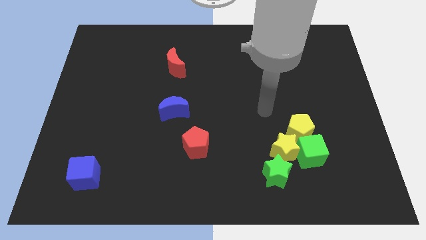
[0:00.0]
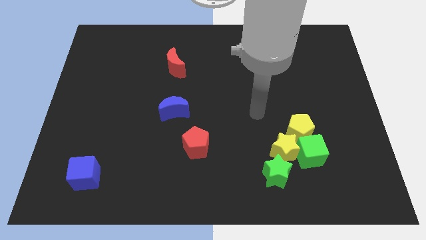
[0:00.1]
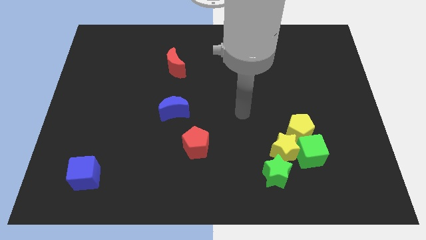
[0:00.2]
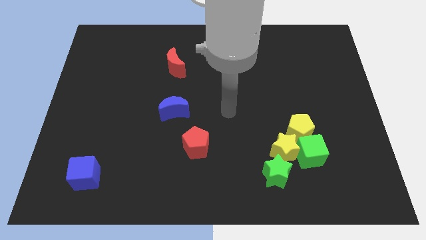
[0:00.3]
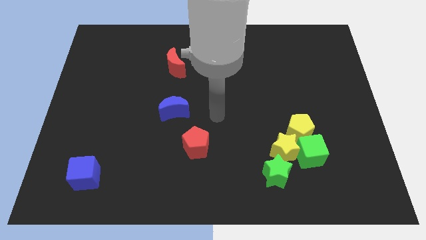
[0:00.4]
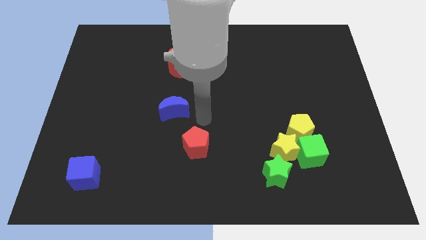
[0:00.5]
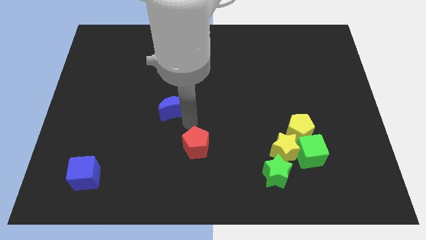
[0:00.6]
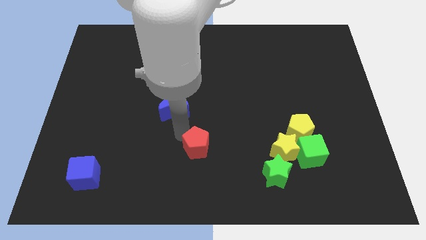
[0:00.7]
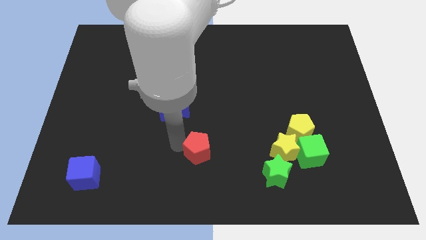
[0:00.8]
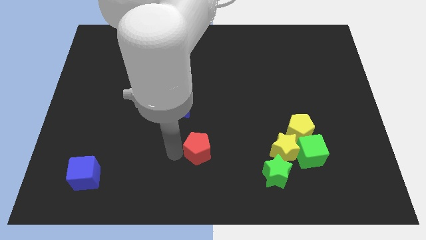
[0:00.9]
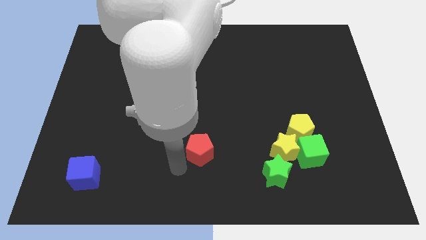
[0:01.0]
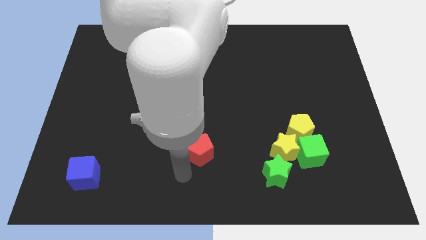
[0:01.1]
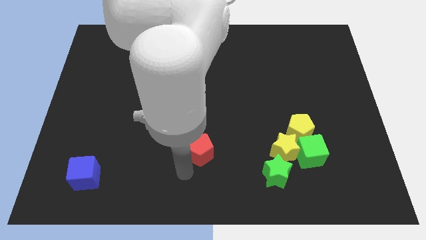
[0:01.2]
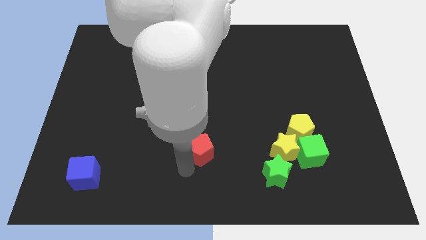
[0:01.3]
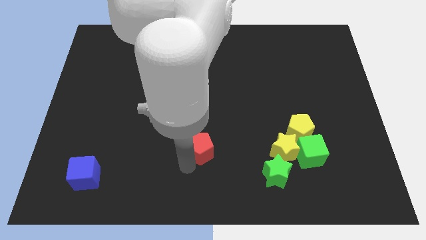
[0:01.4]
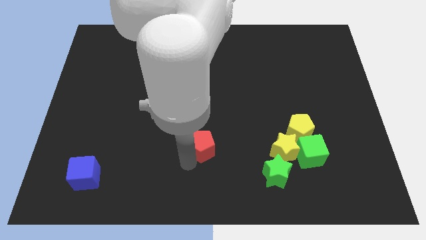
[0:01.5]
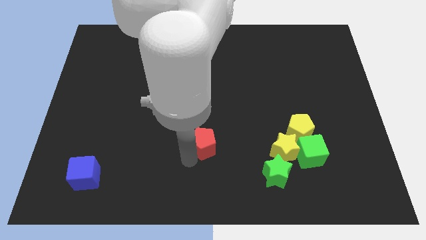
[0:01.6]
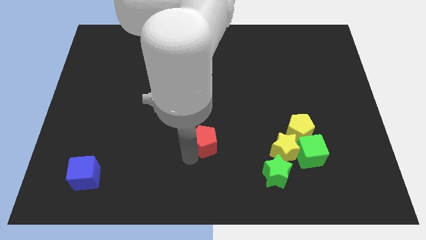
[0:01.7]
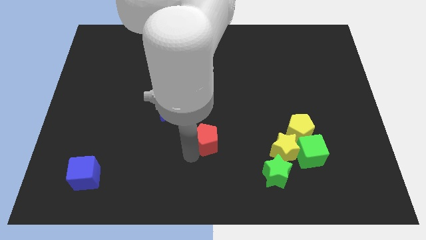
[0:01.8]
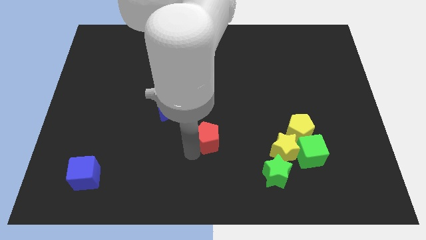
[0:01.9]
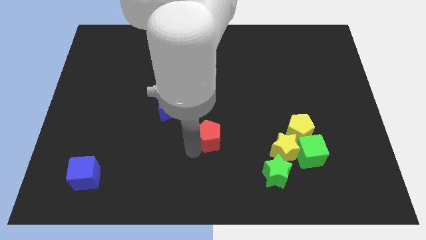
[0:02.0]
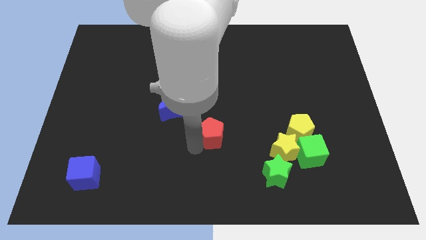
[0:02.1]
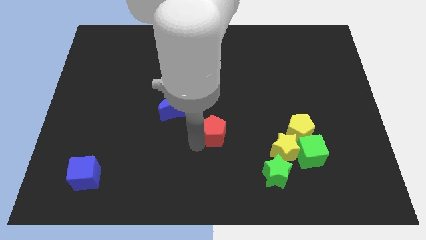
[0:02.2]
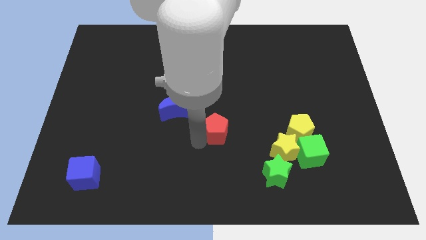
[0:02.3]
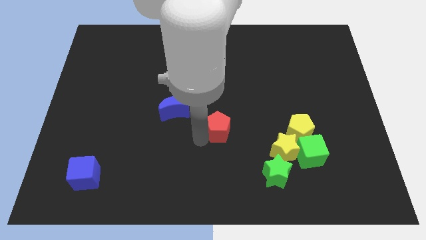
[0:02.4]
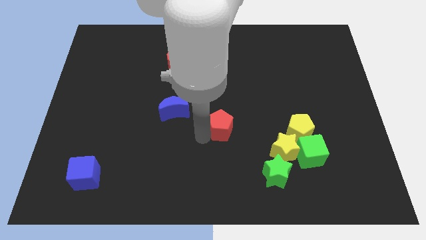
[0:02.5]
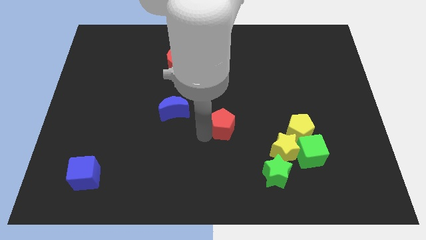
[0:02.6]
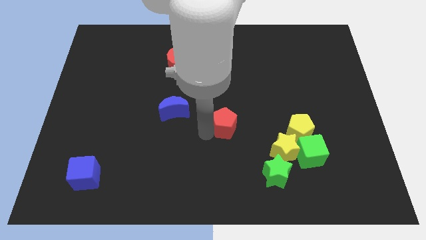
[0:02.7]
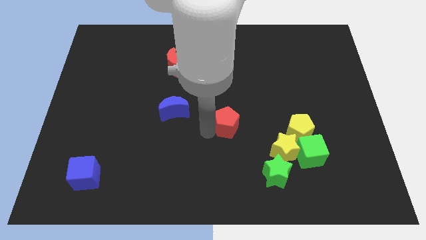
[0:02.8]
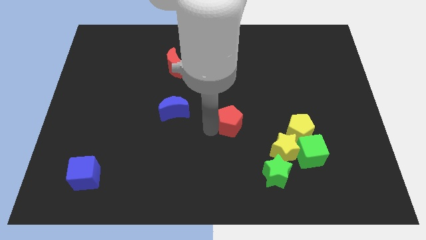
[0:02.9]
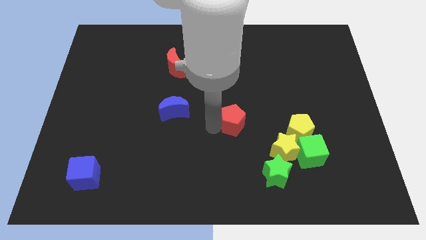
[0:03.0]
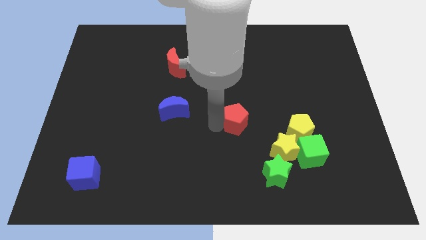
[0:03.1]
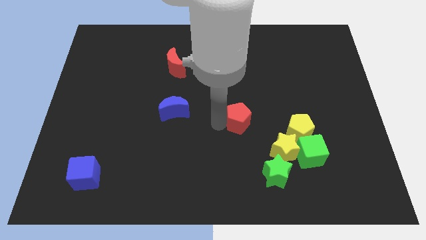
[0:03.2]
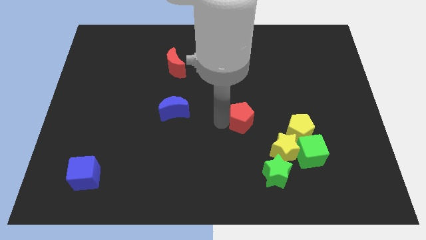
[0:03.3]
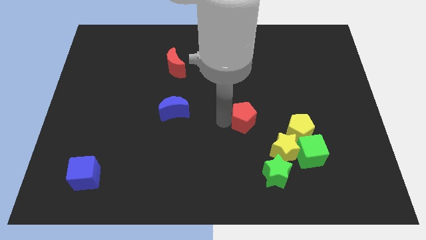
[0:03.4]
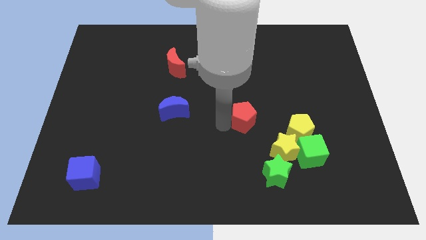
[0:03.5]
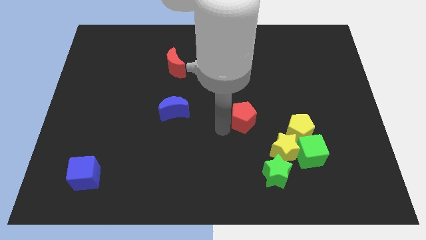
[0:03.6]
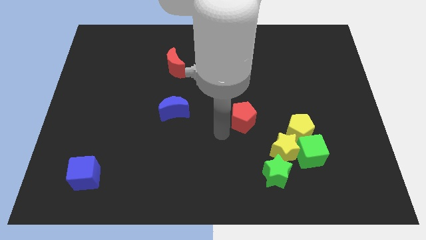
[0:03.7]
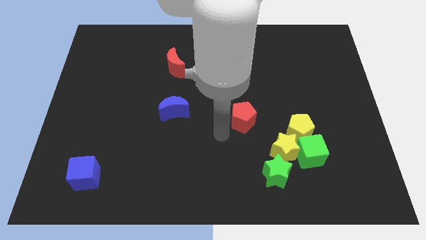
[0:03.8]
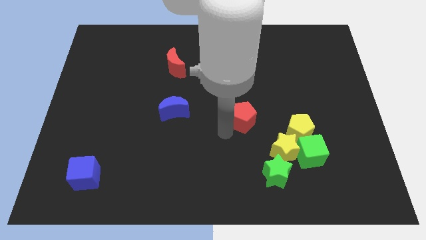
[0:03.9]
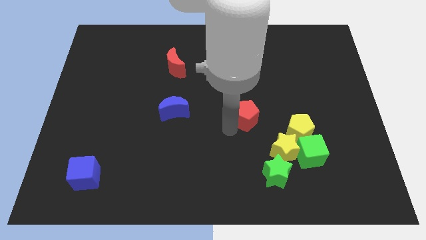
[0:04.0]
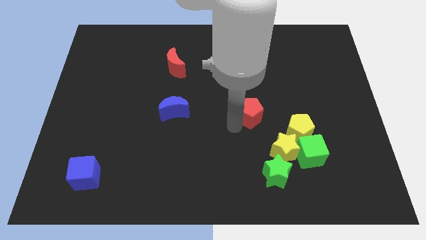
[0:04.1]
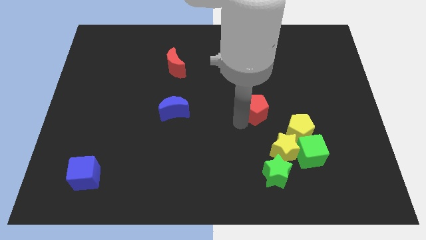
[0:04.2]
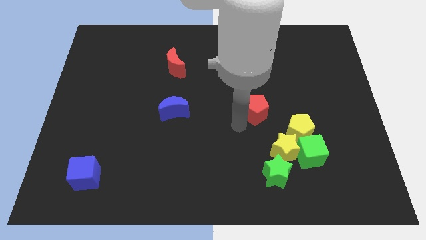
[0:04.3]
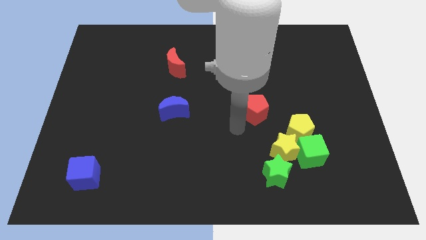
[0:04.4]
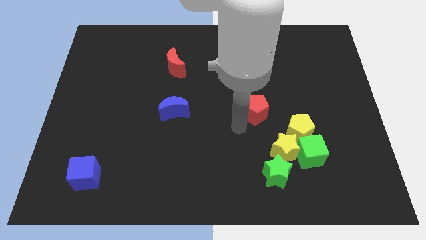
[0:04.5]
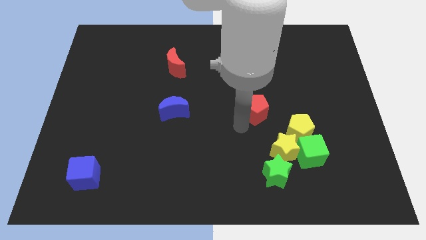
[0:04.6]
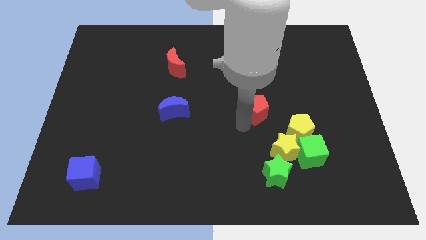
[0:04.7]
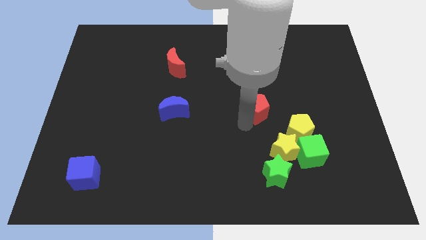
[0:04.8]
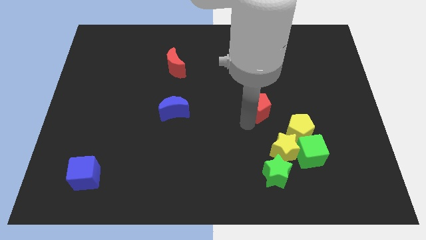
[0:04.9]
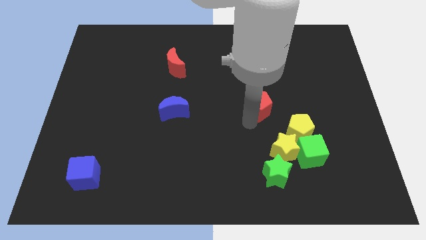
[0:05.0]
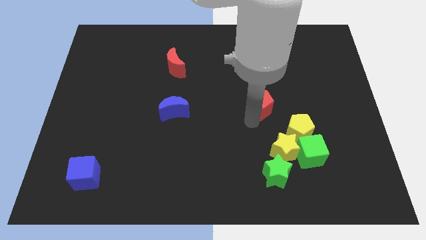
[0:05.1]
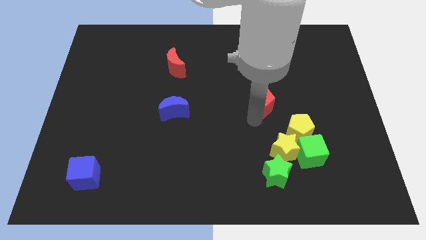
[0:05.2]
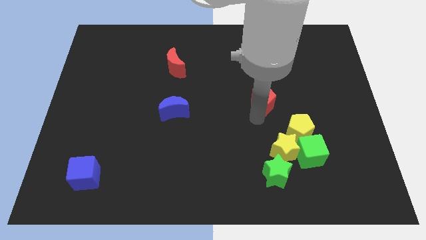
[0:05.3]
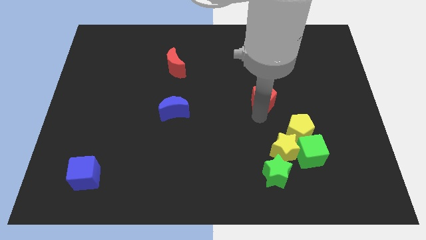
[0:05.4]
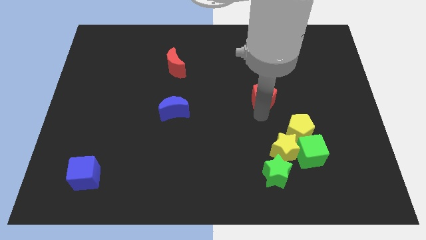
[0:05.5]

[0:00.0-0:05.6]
slide the red pentagon up and right

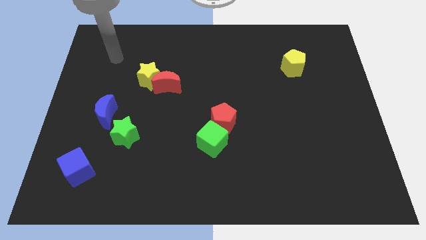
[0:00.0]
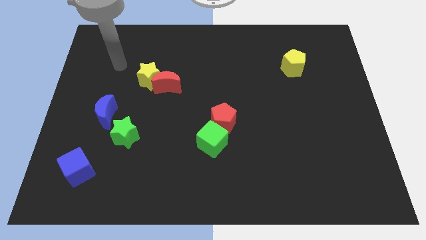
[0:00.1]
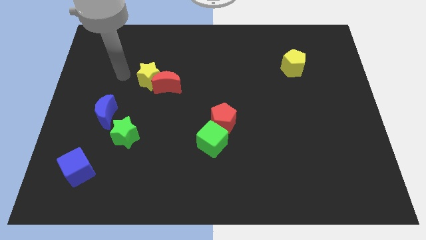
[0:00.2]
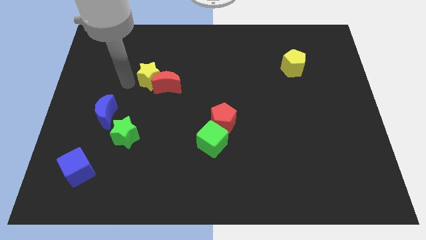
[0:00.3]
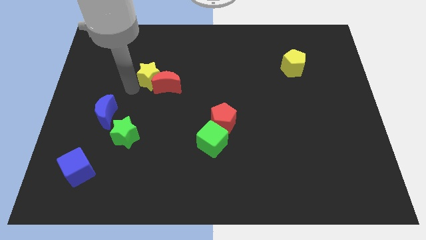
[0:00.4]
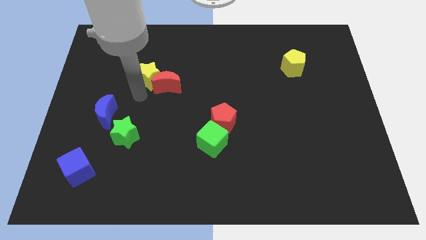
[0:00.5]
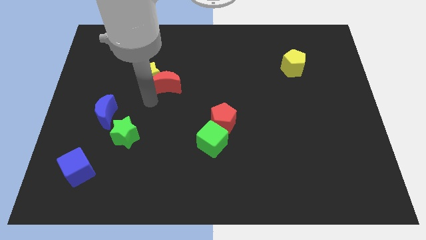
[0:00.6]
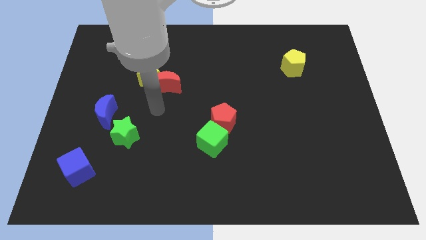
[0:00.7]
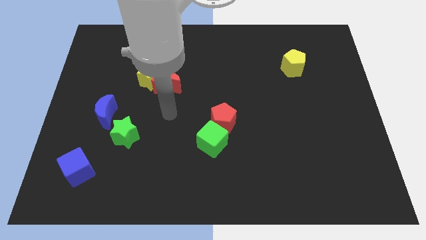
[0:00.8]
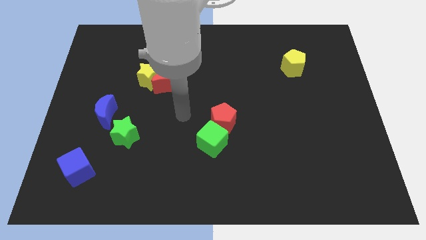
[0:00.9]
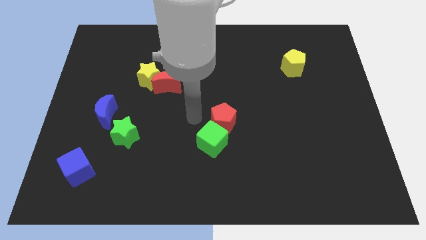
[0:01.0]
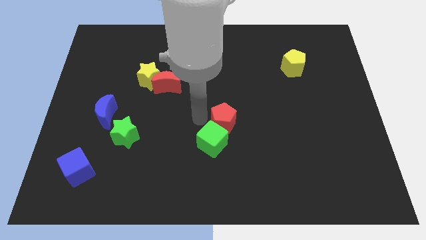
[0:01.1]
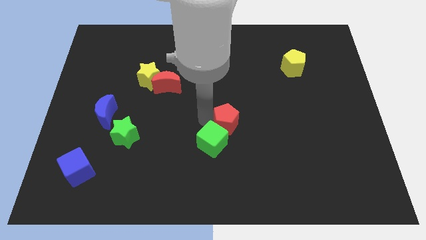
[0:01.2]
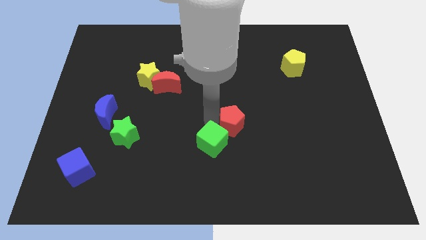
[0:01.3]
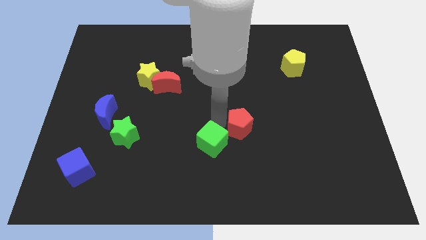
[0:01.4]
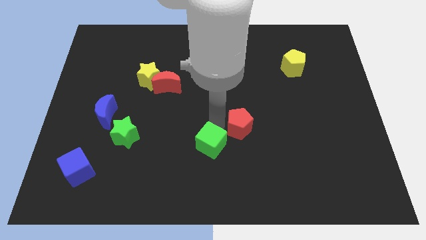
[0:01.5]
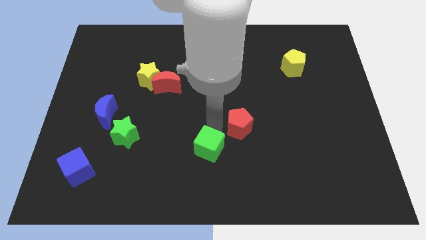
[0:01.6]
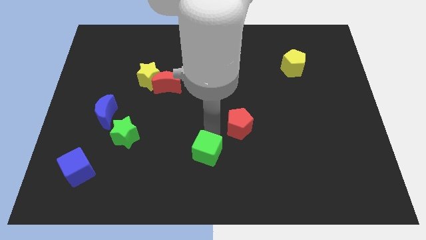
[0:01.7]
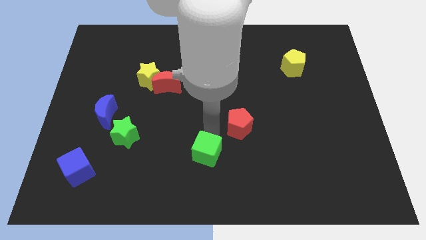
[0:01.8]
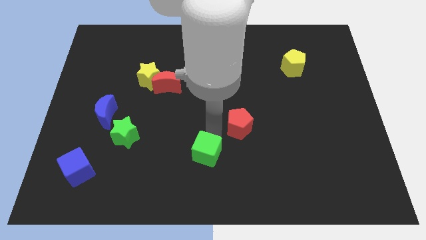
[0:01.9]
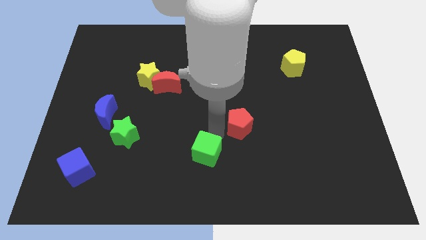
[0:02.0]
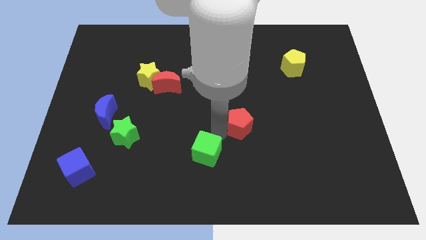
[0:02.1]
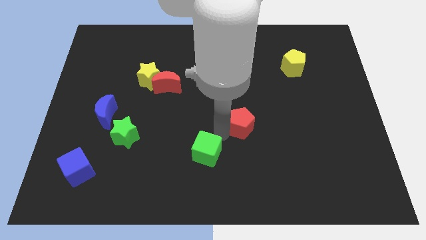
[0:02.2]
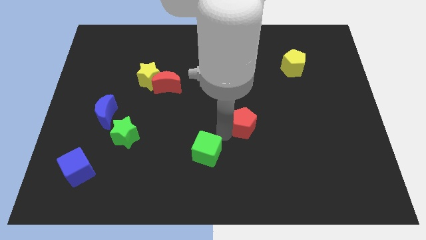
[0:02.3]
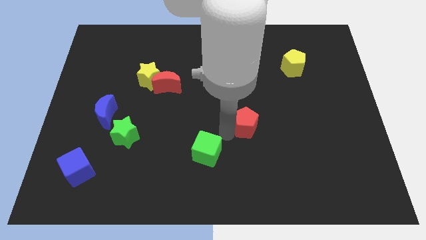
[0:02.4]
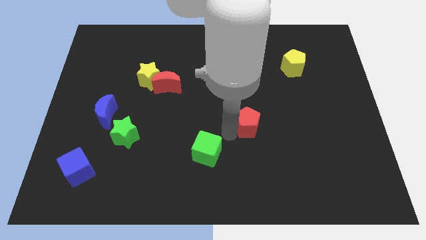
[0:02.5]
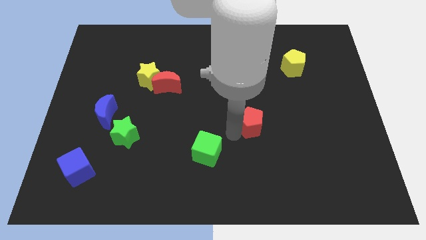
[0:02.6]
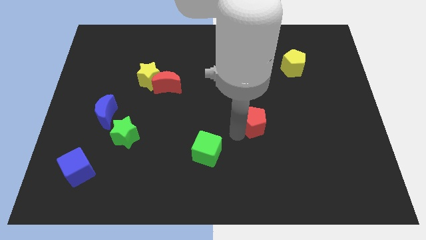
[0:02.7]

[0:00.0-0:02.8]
push the red pentagon right a little bit

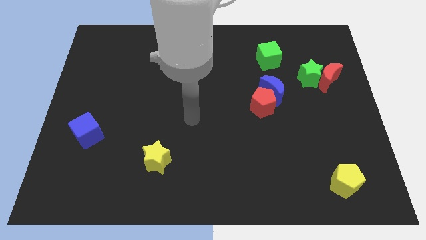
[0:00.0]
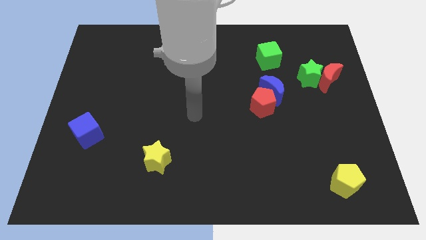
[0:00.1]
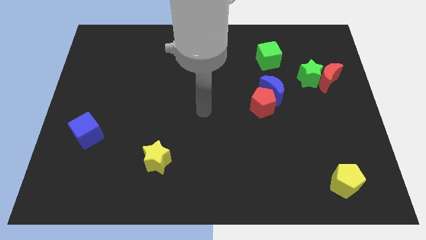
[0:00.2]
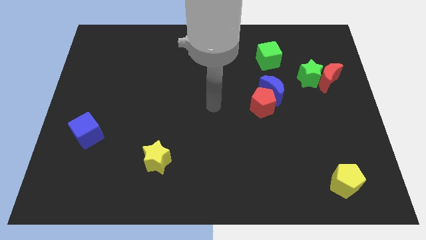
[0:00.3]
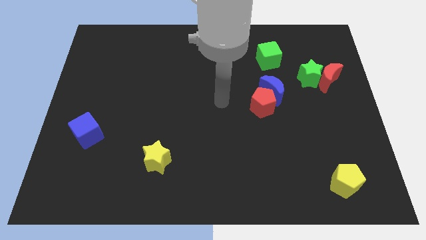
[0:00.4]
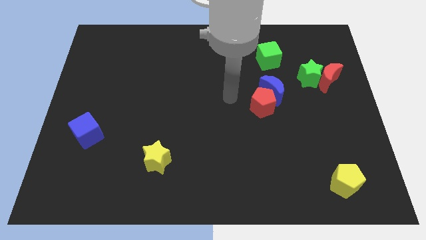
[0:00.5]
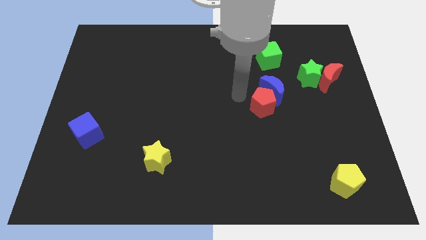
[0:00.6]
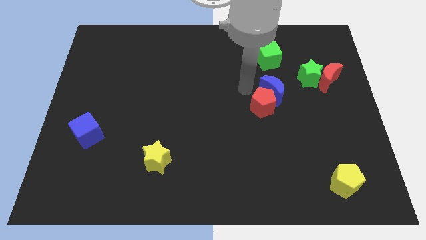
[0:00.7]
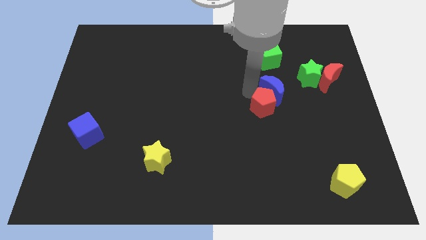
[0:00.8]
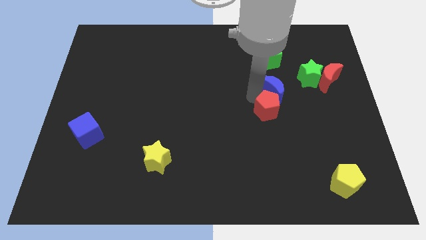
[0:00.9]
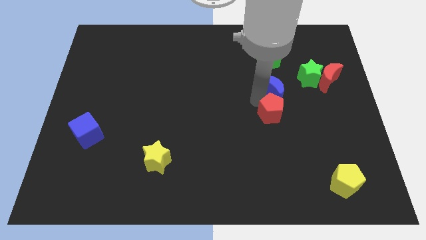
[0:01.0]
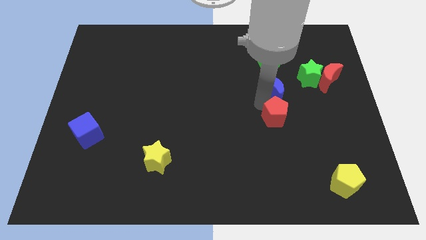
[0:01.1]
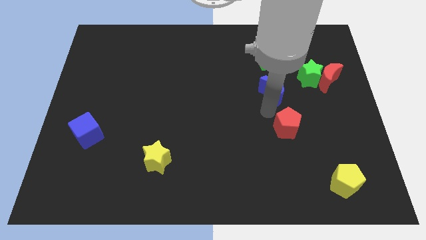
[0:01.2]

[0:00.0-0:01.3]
slightly move the red pentagon down and right diagonally
